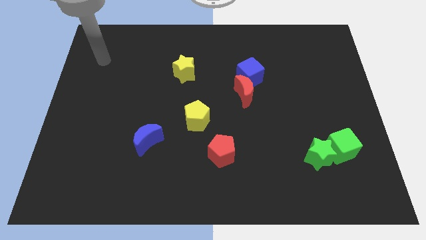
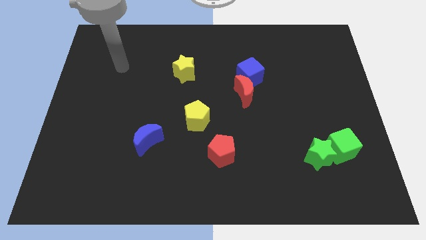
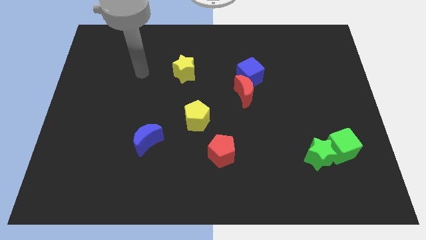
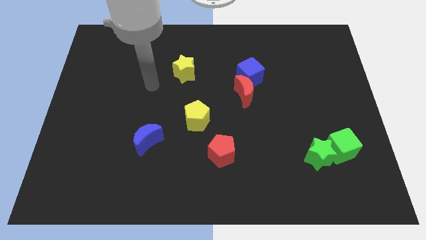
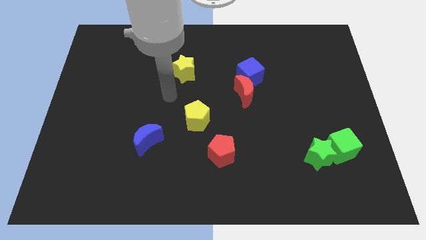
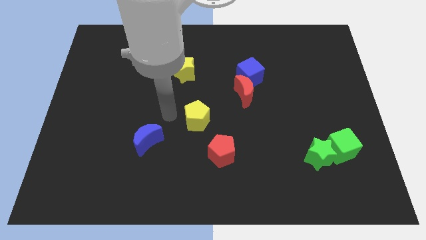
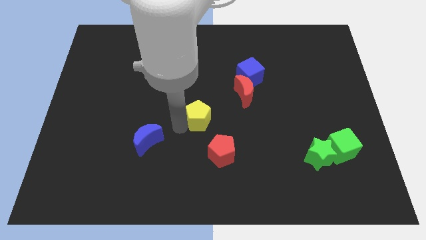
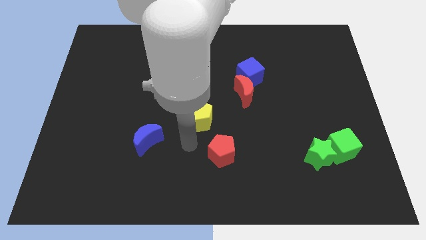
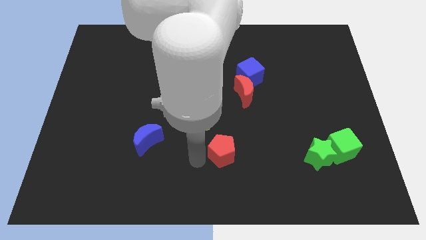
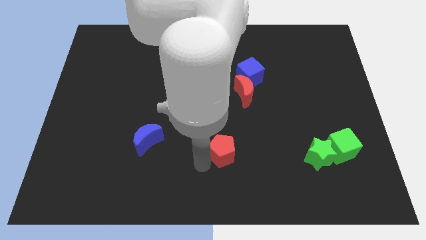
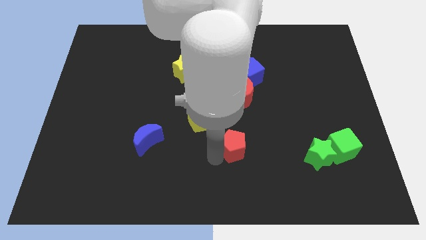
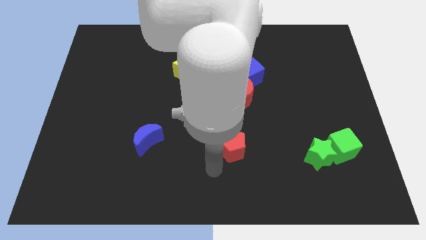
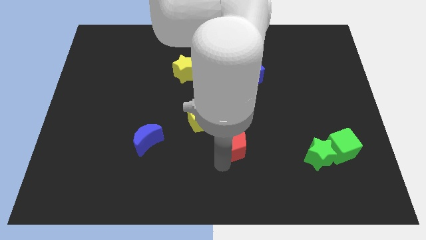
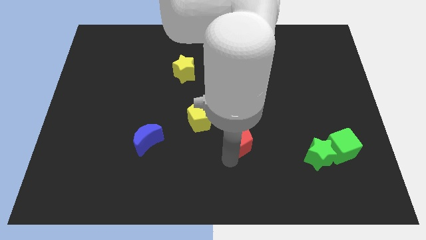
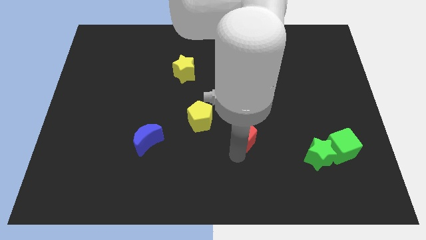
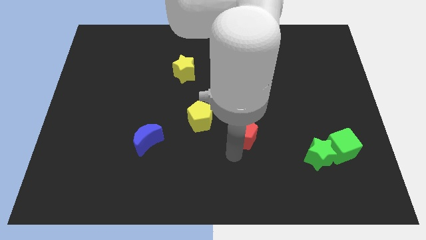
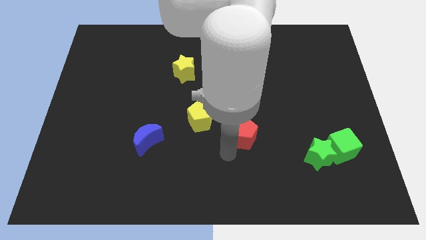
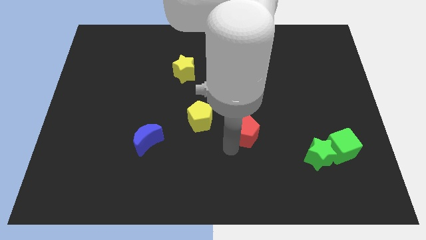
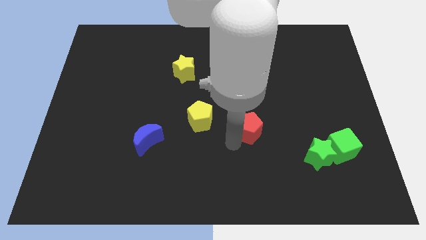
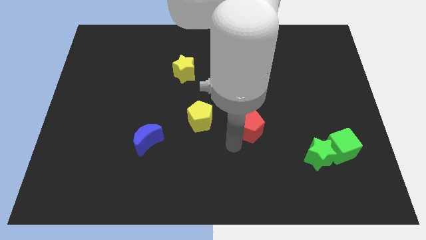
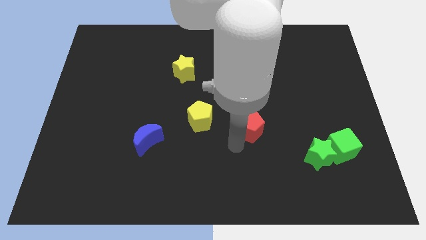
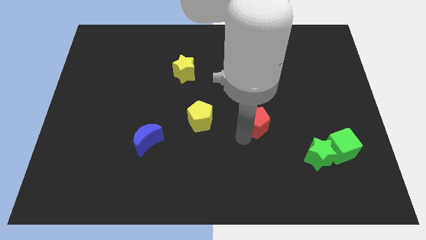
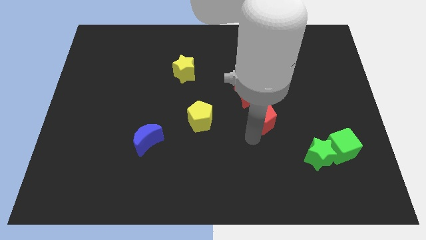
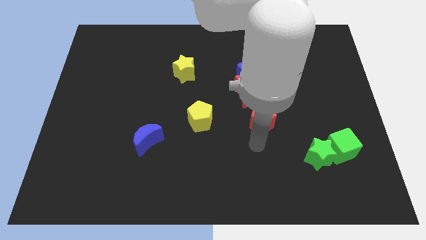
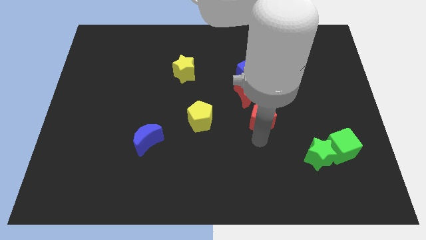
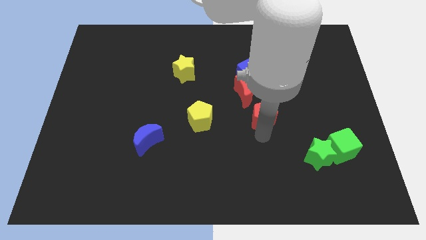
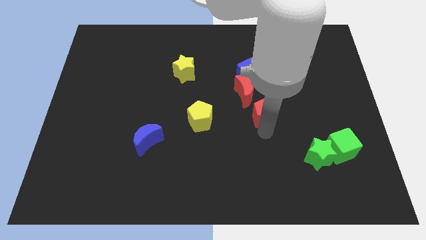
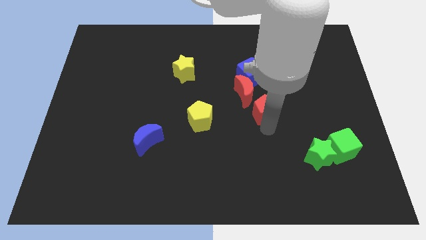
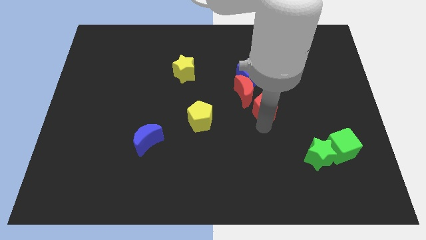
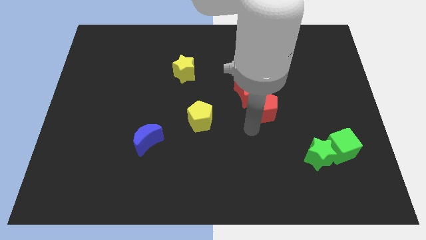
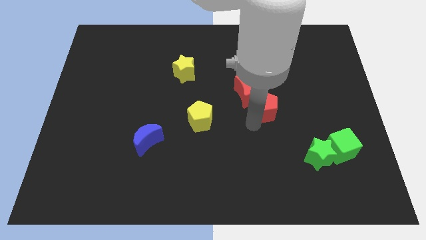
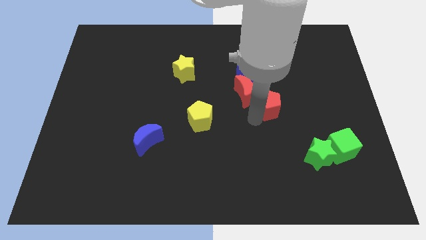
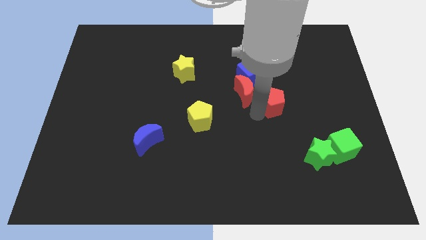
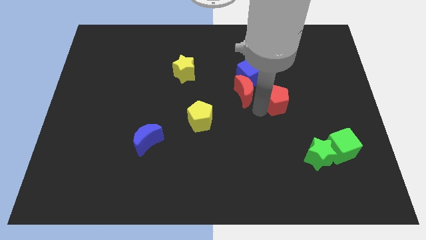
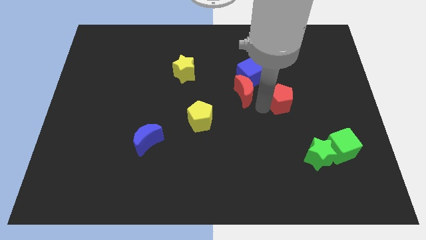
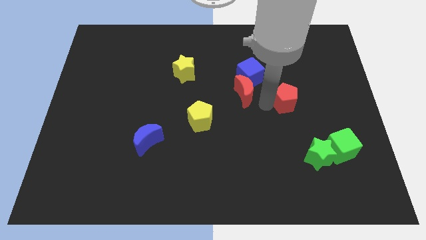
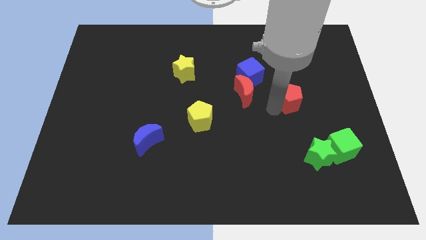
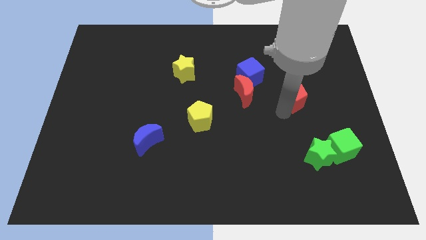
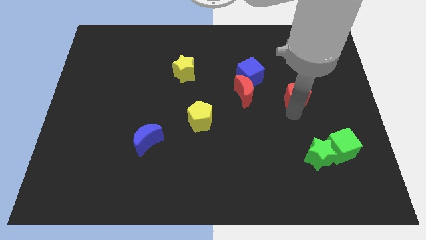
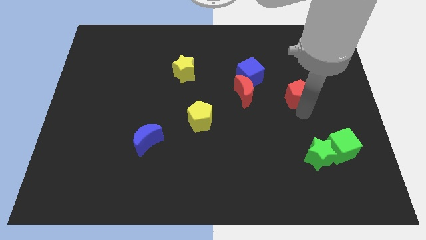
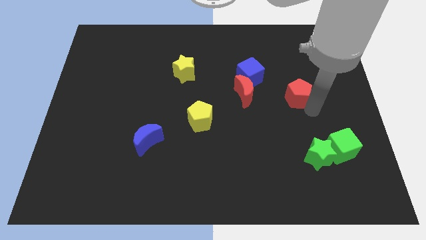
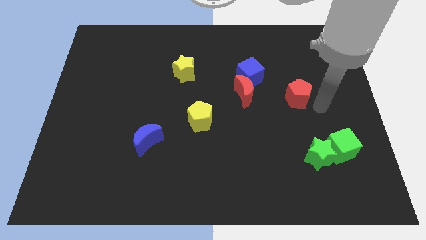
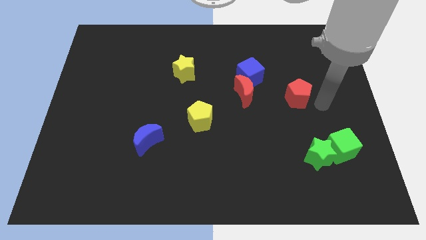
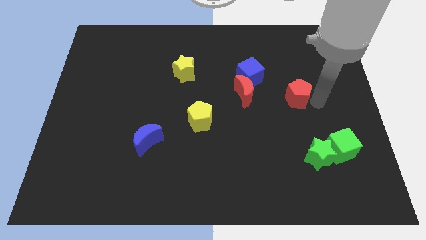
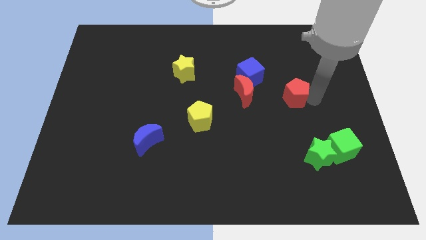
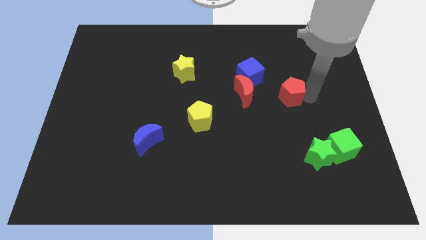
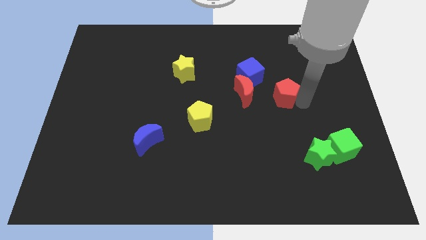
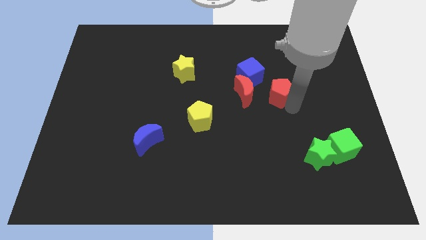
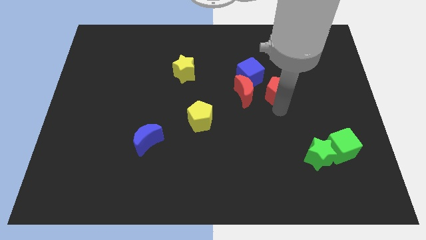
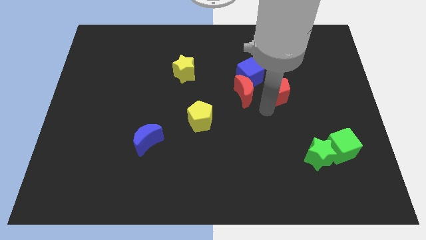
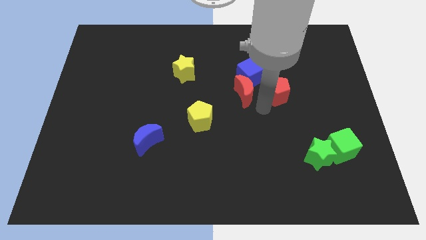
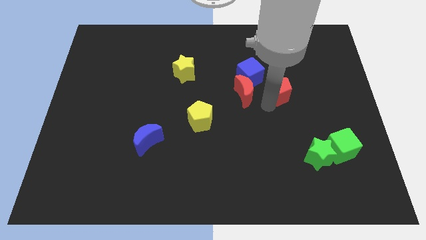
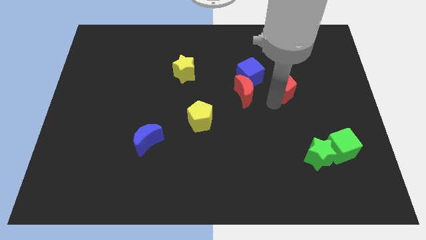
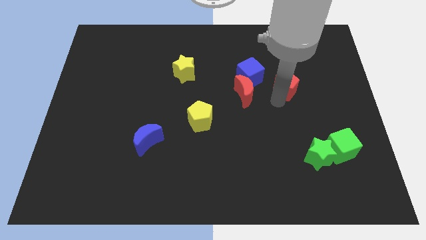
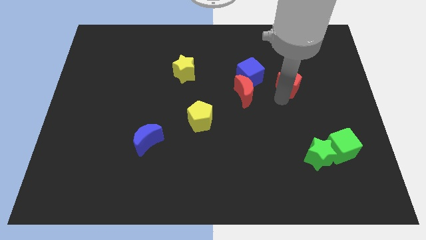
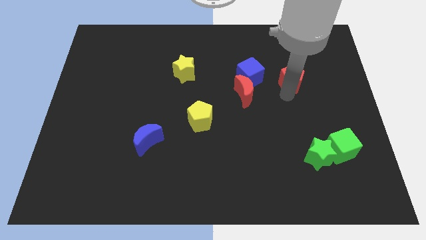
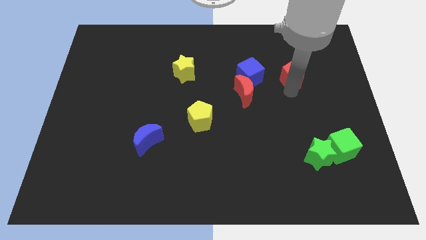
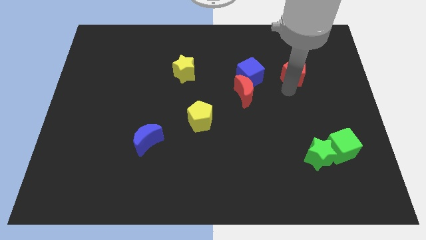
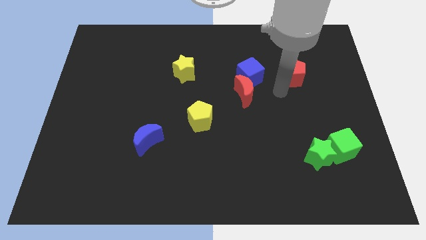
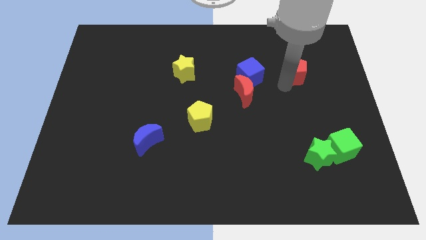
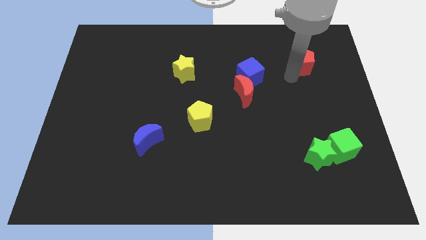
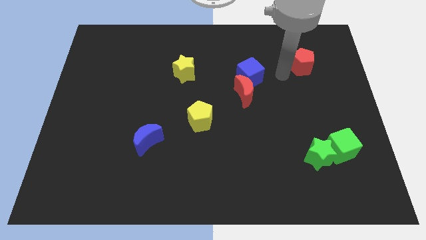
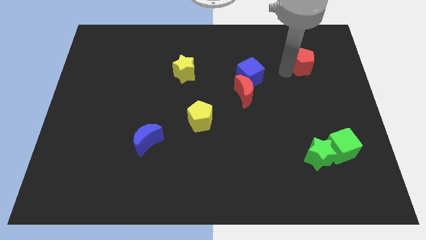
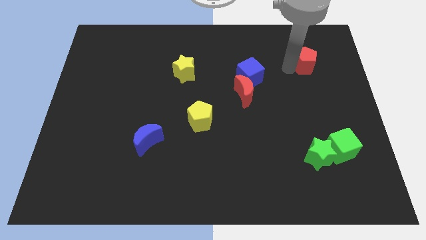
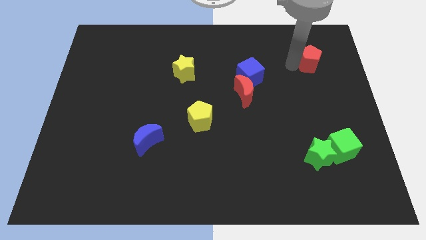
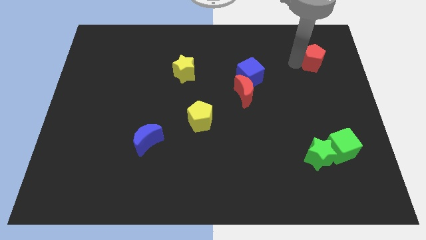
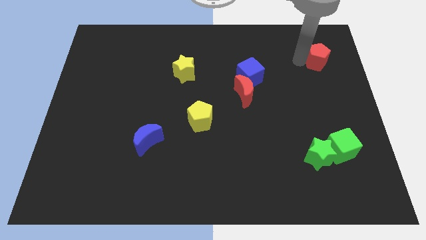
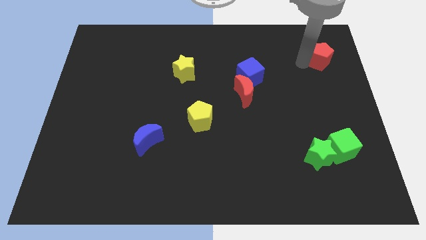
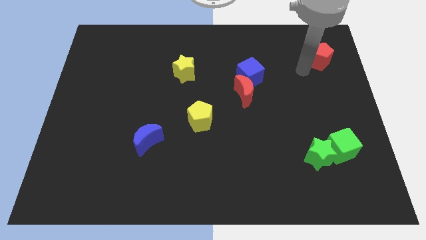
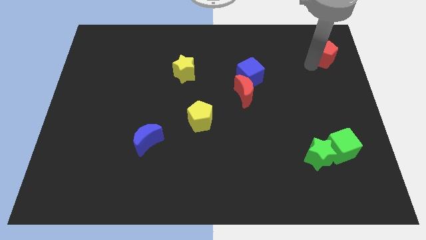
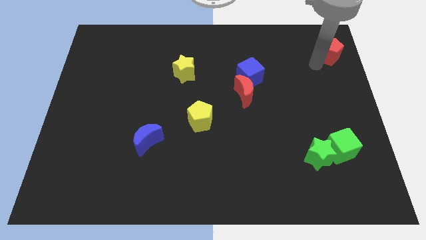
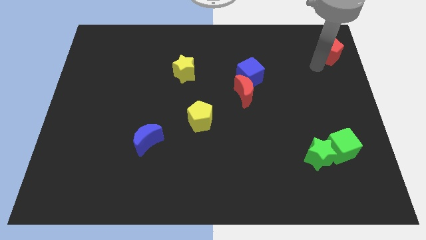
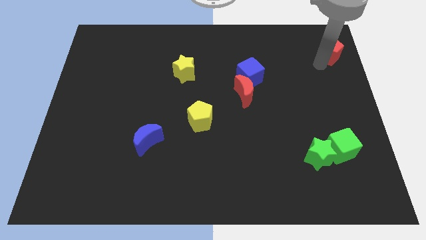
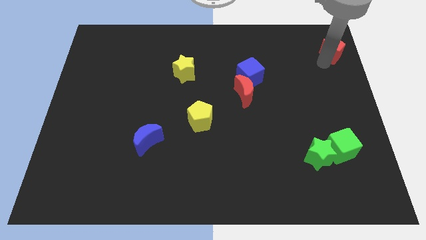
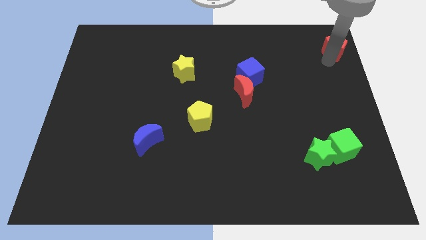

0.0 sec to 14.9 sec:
slide the red pentagon to the upper right corner
